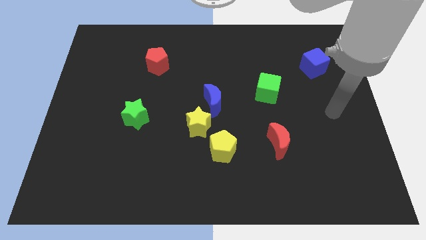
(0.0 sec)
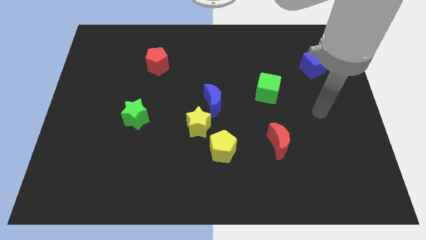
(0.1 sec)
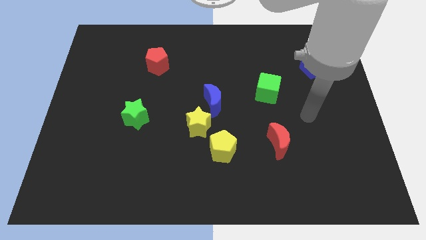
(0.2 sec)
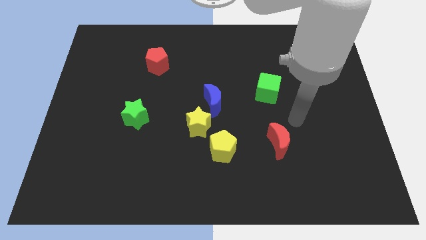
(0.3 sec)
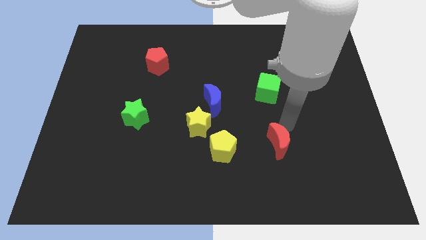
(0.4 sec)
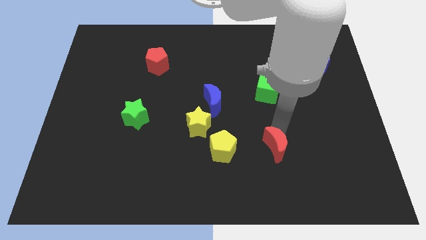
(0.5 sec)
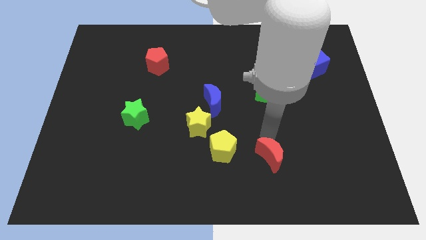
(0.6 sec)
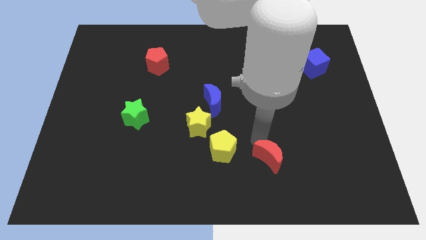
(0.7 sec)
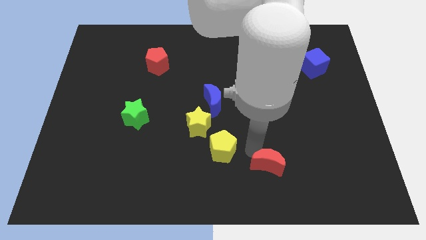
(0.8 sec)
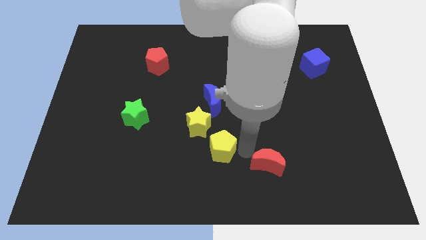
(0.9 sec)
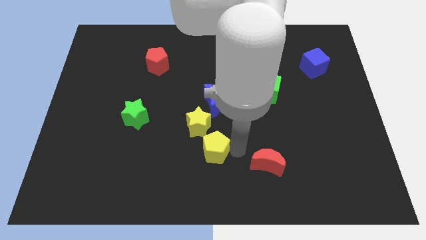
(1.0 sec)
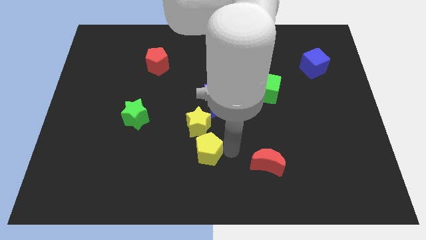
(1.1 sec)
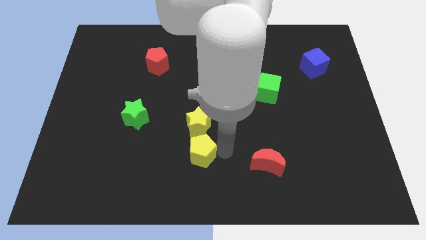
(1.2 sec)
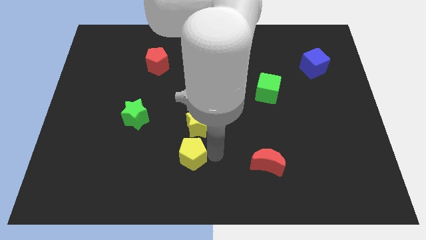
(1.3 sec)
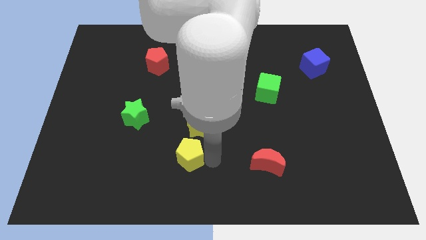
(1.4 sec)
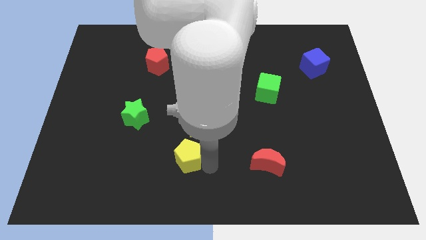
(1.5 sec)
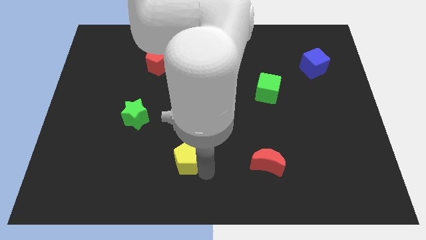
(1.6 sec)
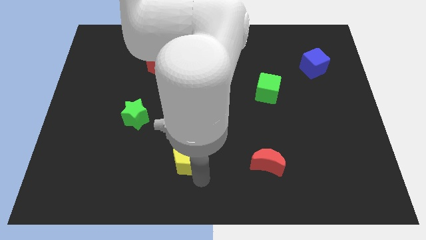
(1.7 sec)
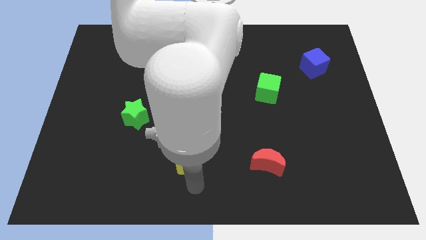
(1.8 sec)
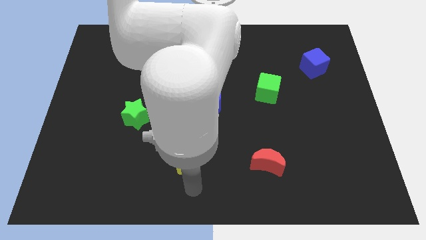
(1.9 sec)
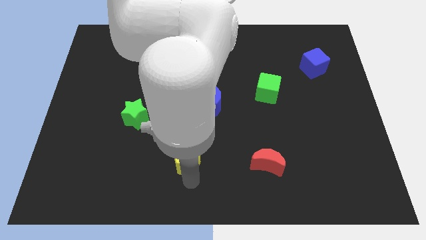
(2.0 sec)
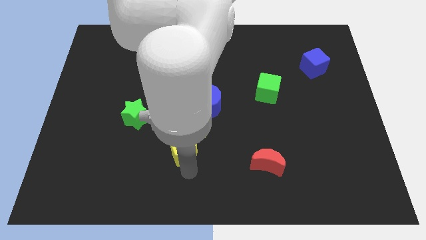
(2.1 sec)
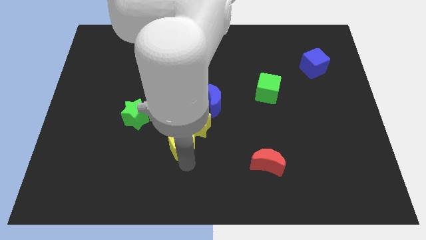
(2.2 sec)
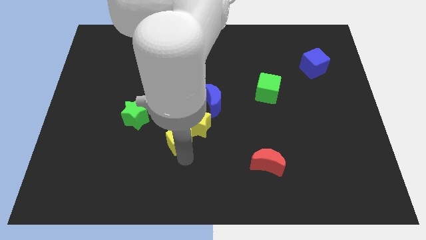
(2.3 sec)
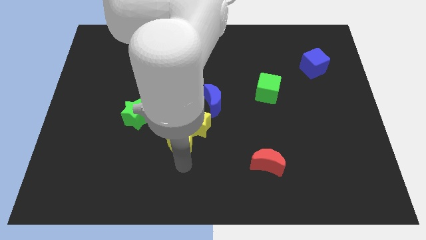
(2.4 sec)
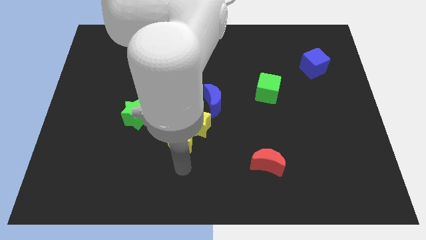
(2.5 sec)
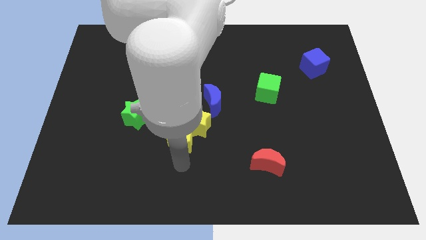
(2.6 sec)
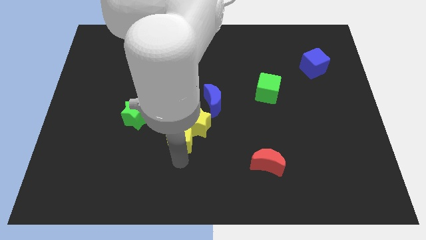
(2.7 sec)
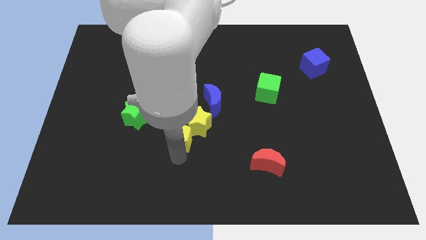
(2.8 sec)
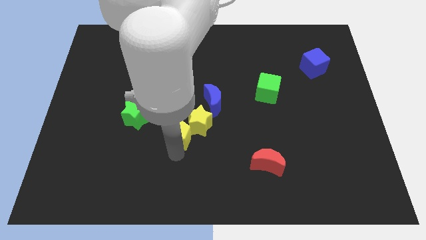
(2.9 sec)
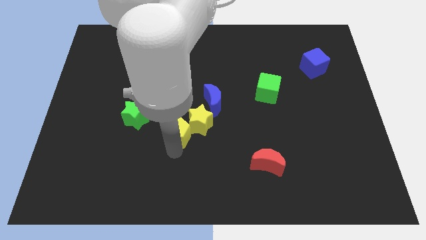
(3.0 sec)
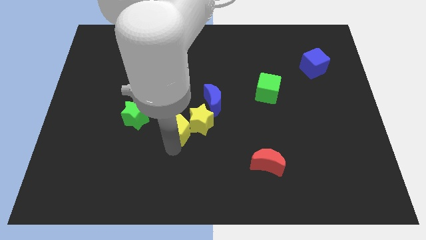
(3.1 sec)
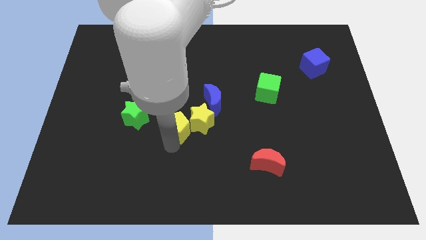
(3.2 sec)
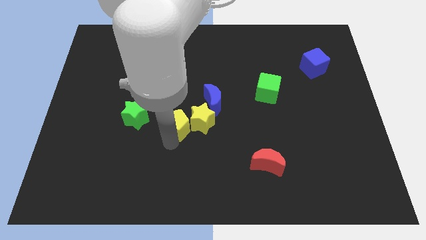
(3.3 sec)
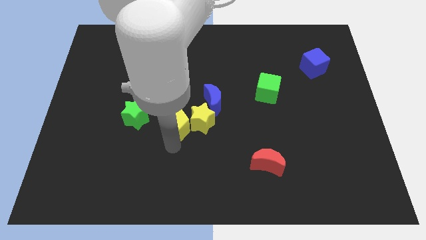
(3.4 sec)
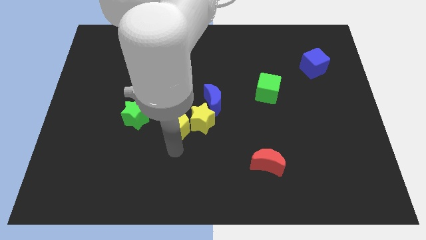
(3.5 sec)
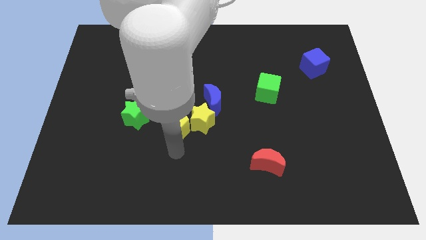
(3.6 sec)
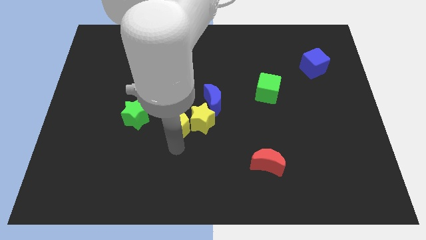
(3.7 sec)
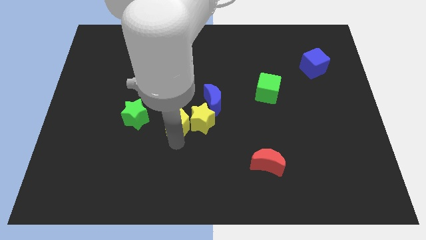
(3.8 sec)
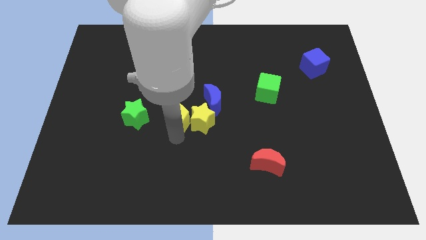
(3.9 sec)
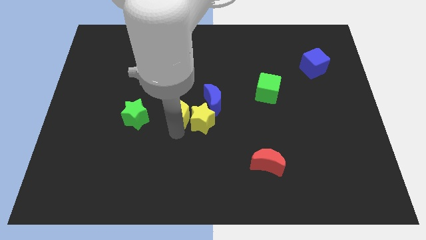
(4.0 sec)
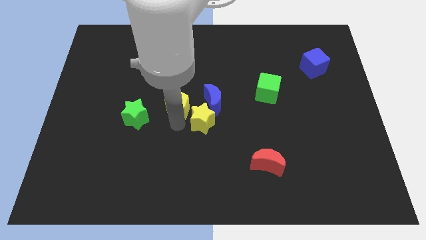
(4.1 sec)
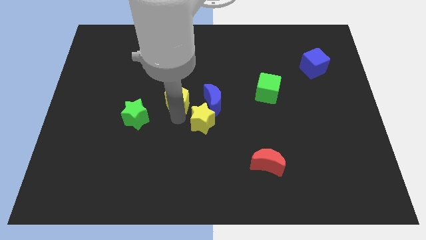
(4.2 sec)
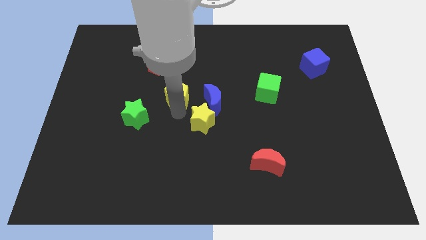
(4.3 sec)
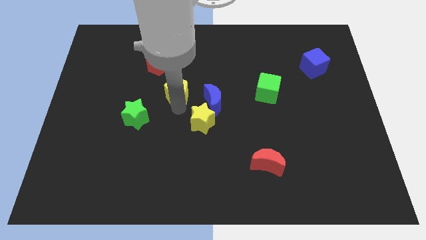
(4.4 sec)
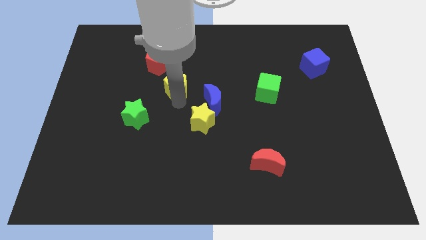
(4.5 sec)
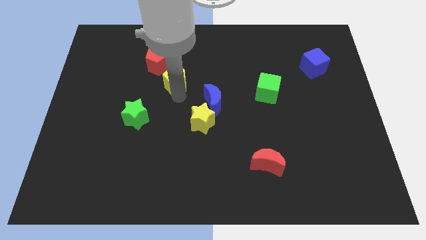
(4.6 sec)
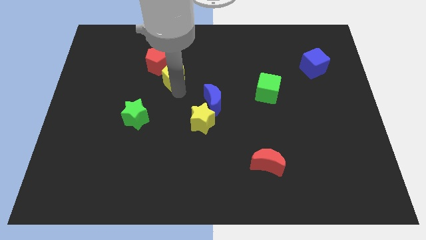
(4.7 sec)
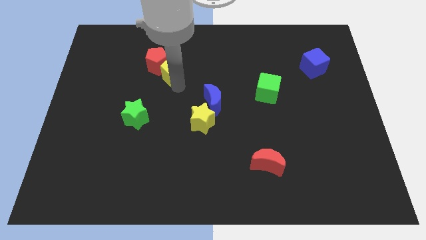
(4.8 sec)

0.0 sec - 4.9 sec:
push the yellow pentagon towards the red pentagon

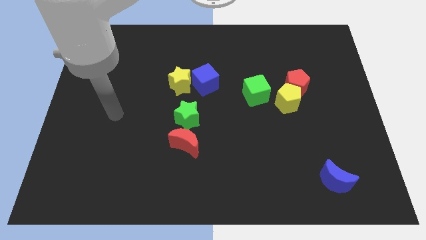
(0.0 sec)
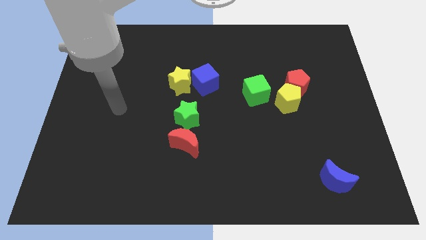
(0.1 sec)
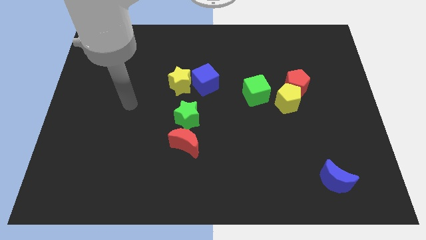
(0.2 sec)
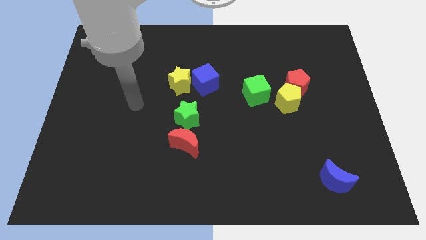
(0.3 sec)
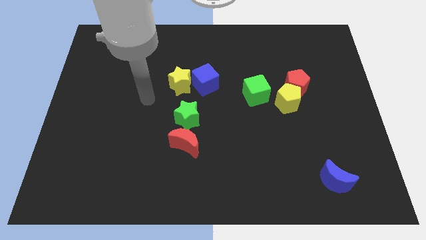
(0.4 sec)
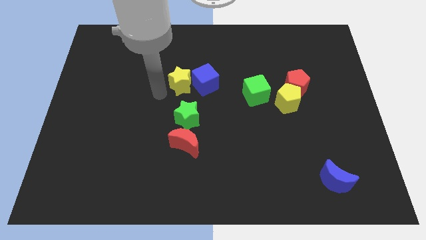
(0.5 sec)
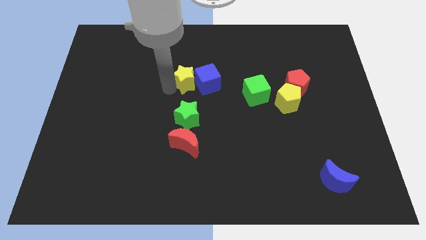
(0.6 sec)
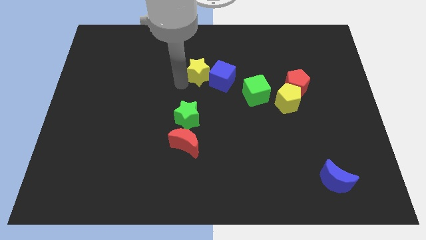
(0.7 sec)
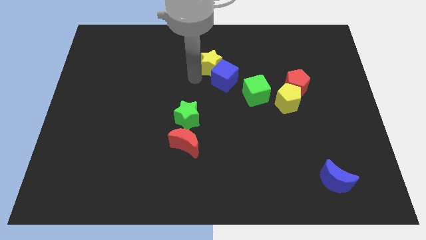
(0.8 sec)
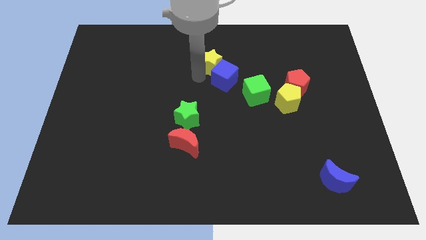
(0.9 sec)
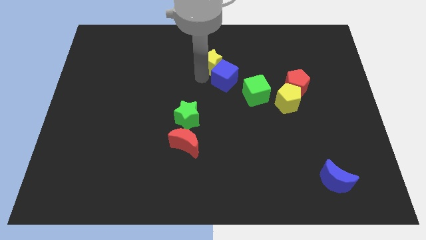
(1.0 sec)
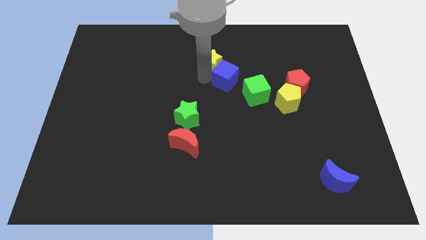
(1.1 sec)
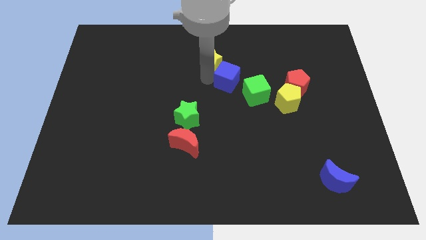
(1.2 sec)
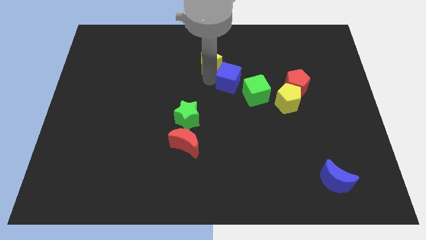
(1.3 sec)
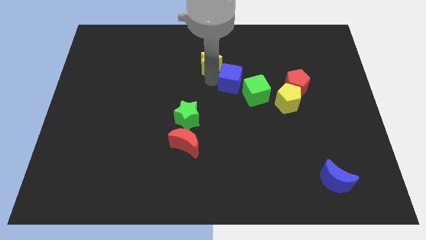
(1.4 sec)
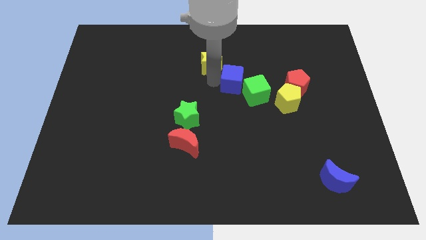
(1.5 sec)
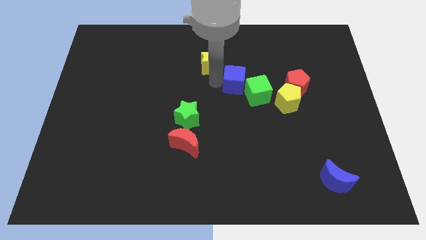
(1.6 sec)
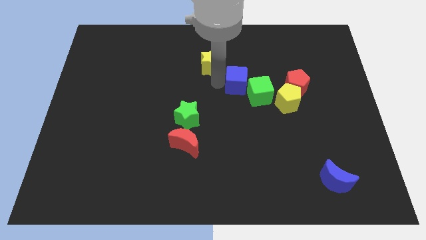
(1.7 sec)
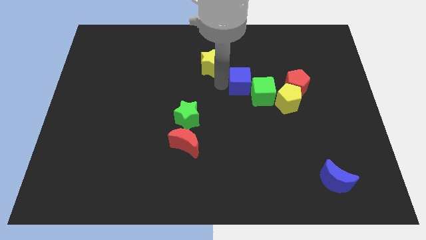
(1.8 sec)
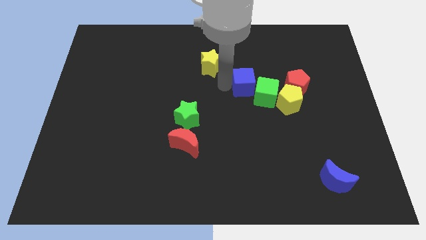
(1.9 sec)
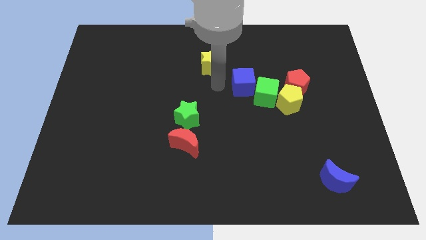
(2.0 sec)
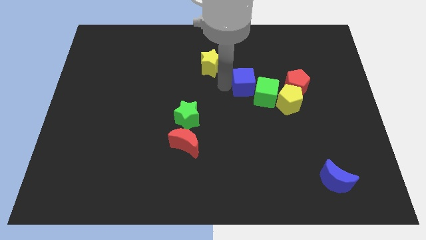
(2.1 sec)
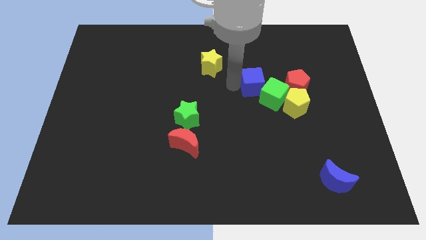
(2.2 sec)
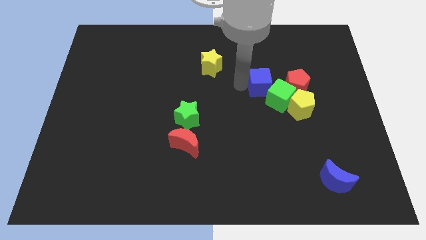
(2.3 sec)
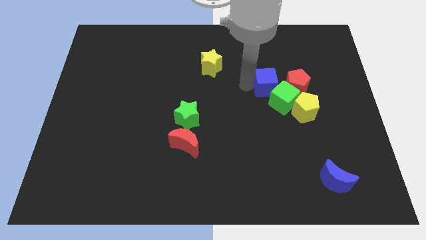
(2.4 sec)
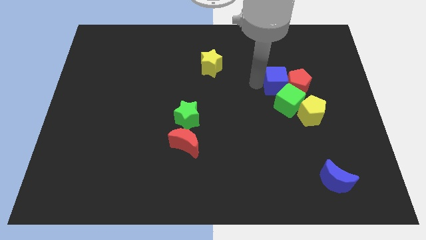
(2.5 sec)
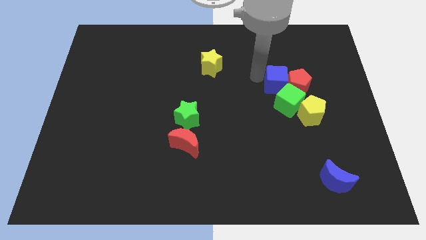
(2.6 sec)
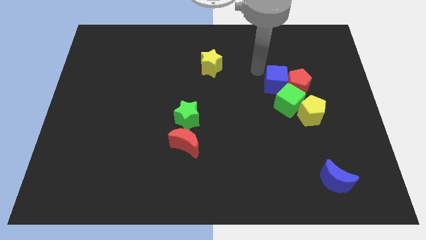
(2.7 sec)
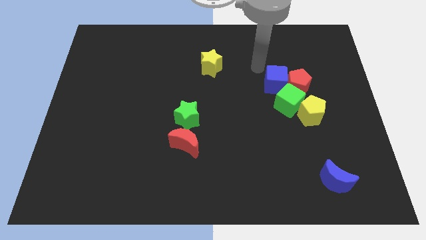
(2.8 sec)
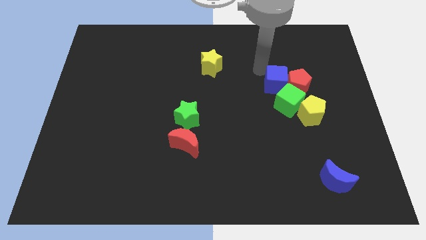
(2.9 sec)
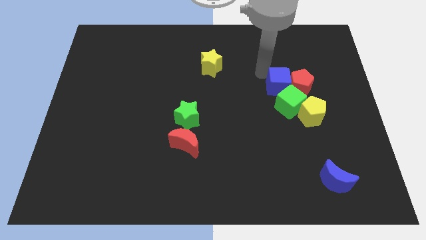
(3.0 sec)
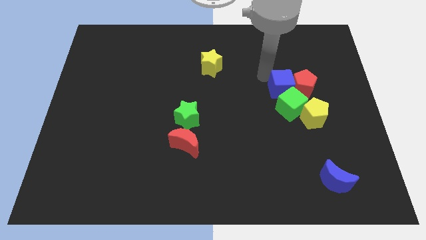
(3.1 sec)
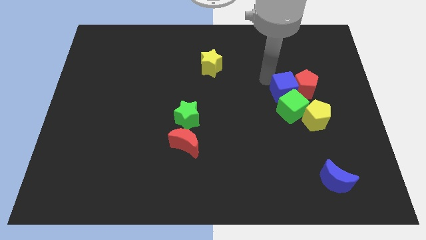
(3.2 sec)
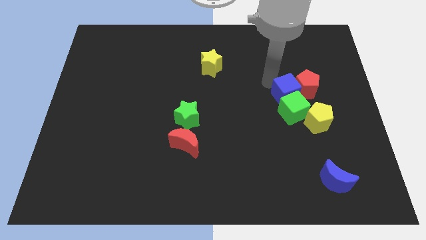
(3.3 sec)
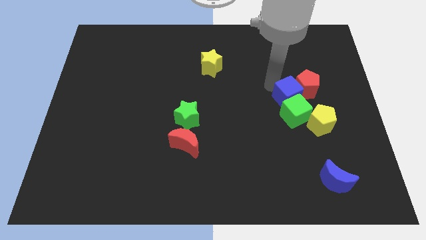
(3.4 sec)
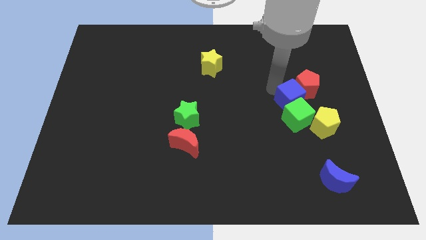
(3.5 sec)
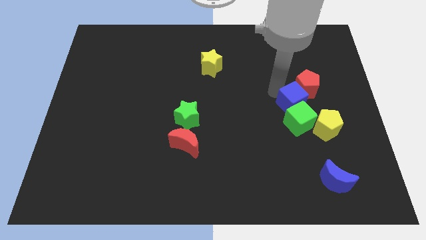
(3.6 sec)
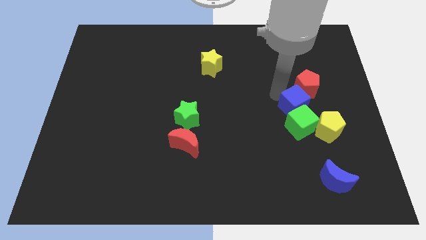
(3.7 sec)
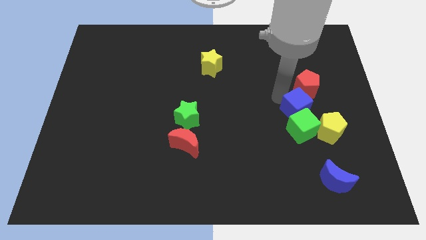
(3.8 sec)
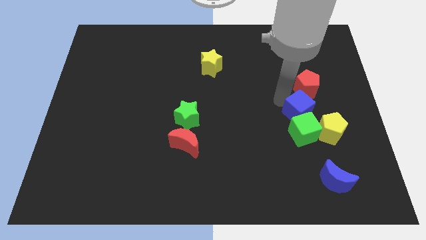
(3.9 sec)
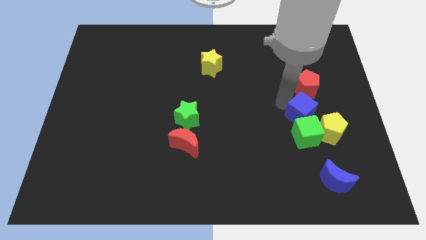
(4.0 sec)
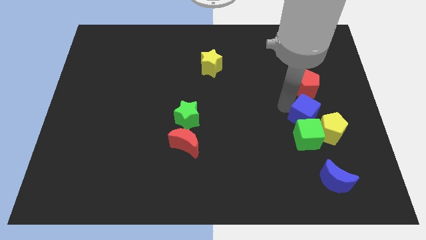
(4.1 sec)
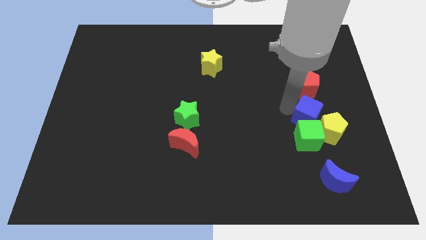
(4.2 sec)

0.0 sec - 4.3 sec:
push the blue cube to the yellow pentagon
